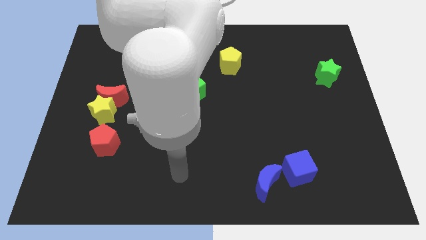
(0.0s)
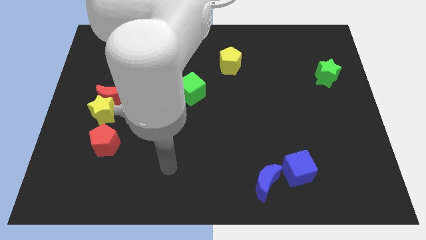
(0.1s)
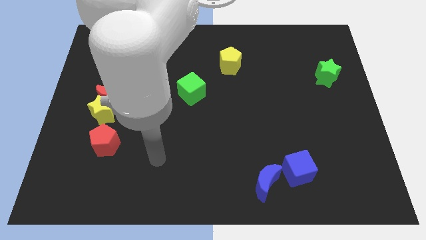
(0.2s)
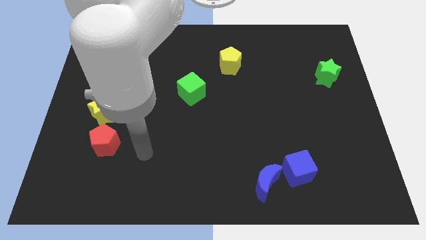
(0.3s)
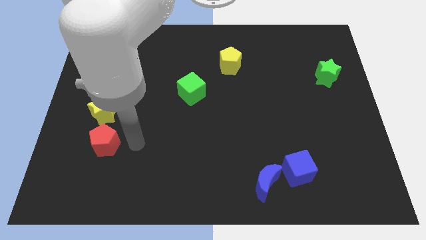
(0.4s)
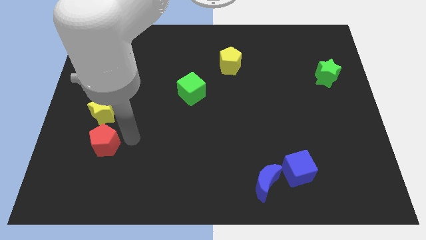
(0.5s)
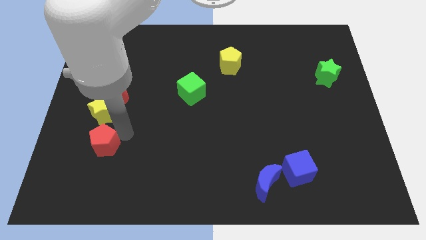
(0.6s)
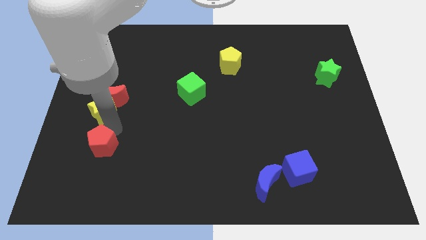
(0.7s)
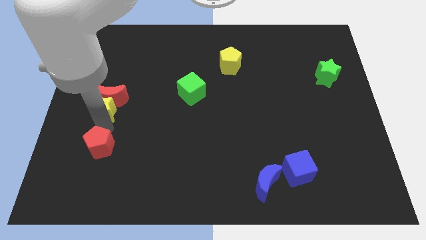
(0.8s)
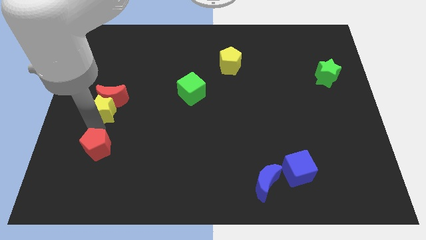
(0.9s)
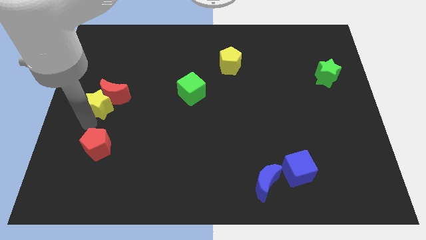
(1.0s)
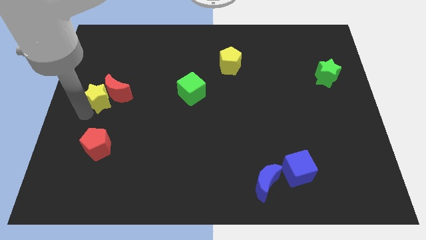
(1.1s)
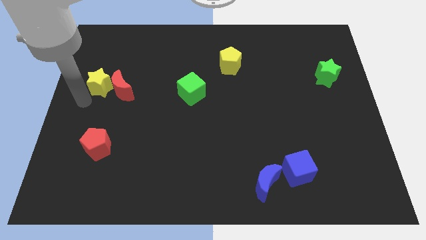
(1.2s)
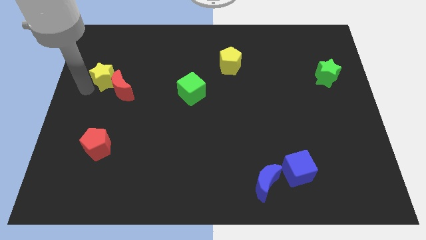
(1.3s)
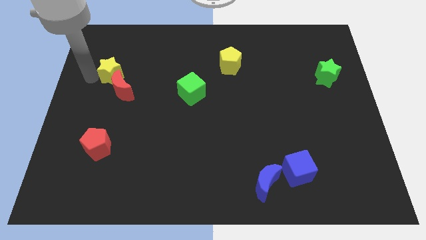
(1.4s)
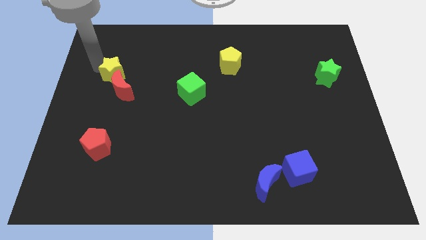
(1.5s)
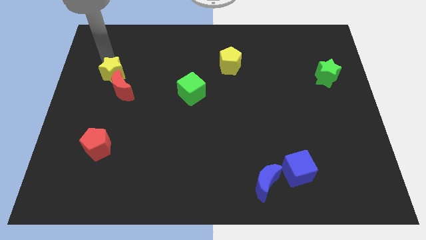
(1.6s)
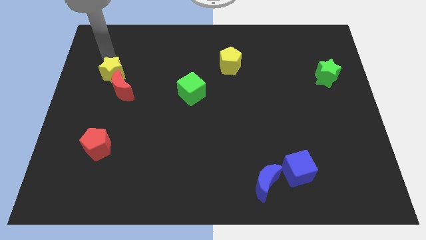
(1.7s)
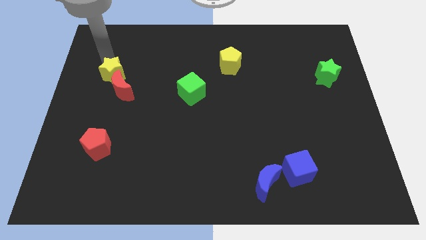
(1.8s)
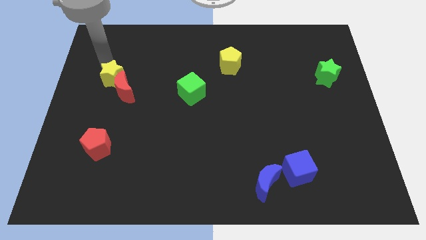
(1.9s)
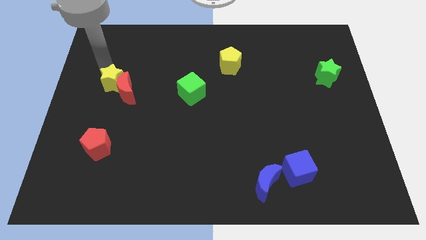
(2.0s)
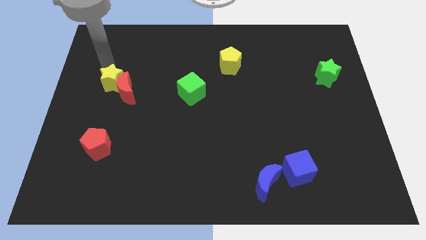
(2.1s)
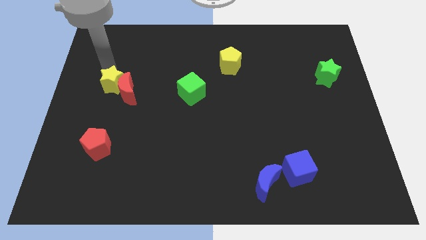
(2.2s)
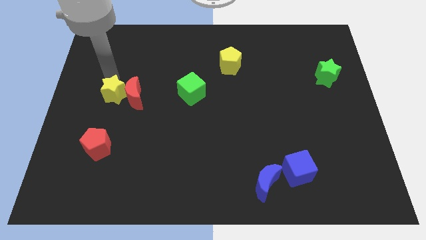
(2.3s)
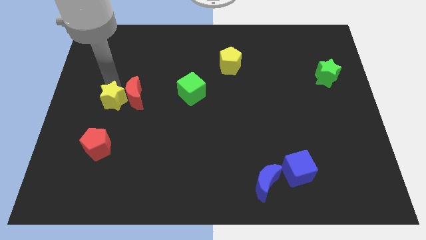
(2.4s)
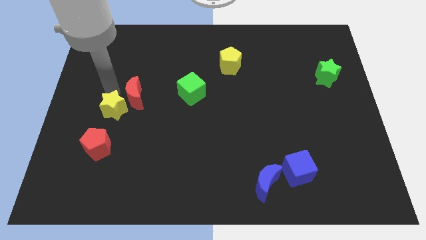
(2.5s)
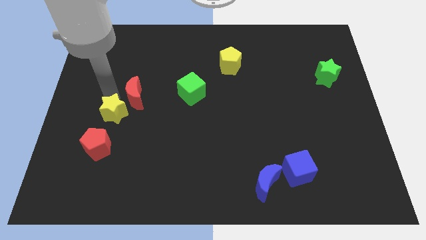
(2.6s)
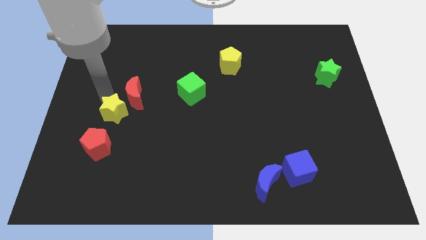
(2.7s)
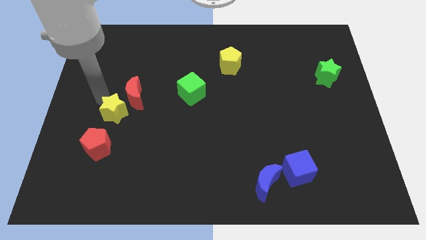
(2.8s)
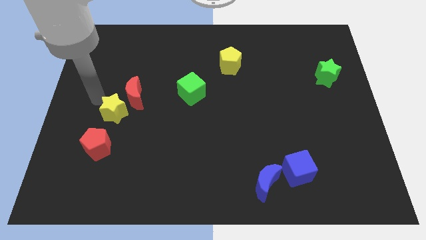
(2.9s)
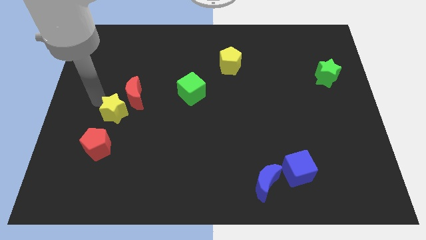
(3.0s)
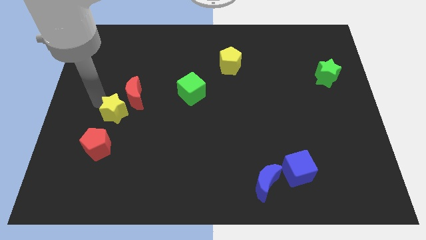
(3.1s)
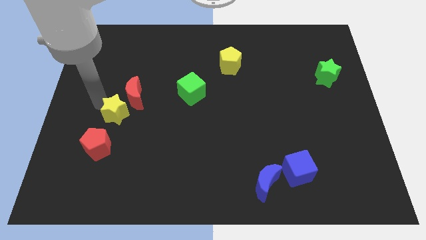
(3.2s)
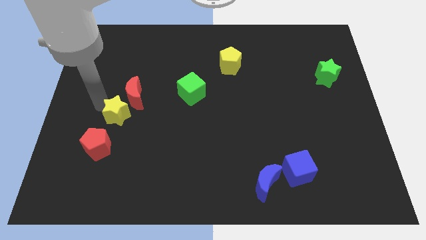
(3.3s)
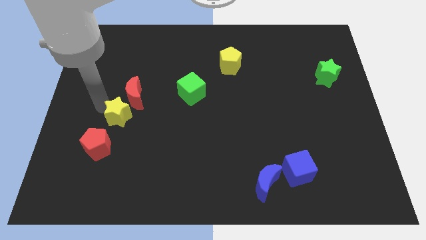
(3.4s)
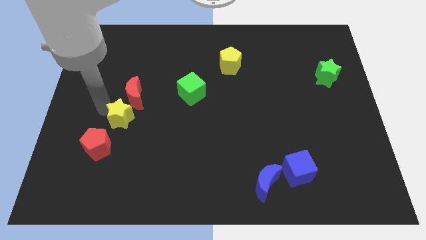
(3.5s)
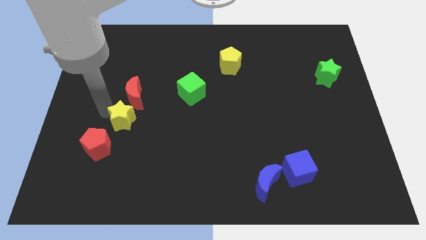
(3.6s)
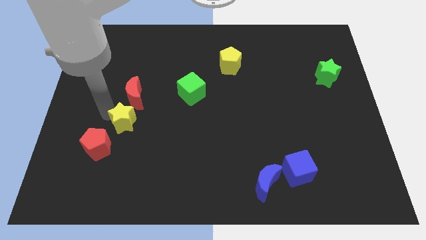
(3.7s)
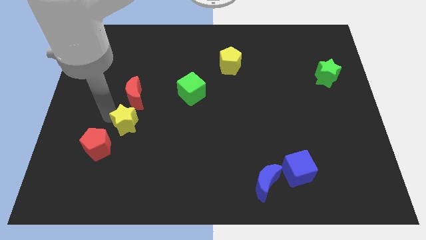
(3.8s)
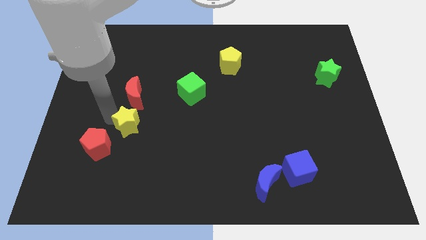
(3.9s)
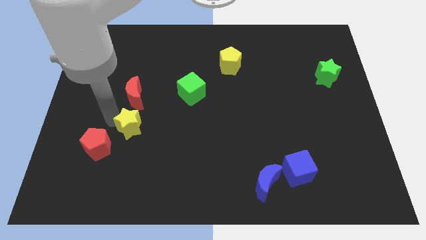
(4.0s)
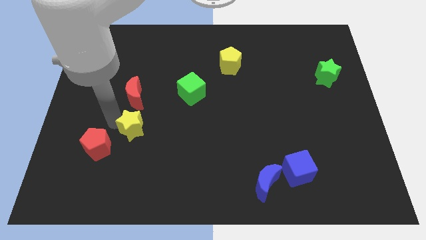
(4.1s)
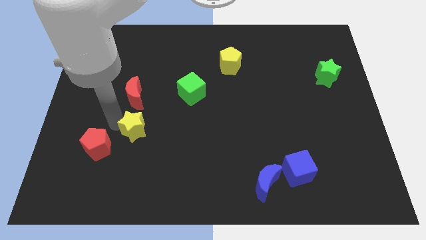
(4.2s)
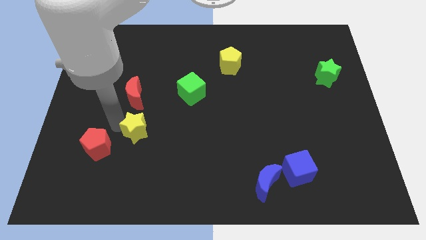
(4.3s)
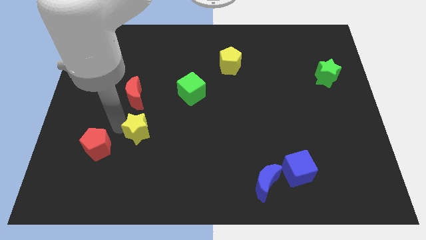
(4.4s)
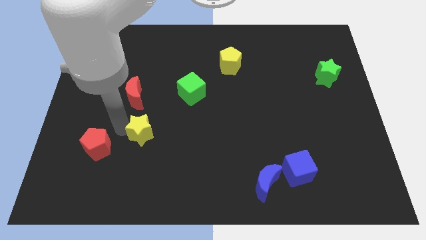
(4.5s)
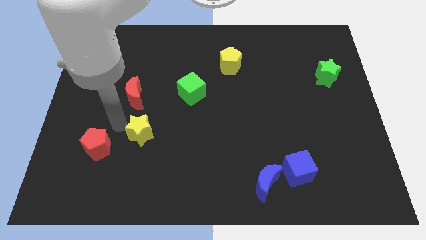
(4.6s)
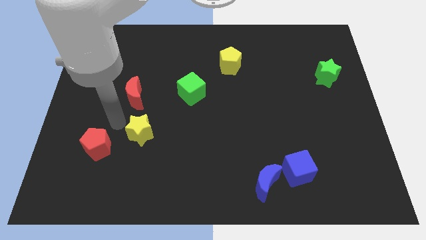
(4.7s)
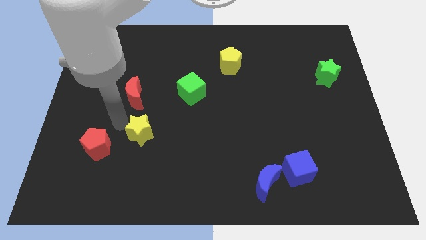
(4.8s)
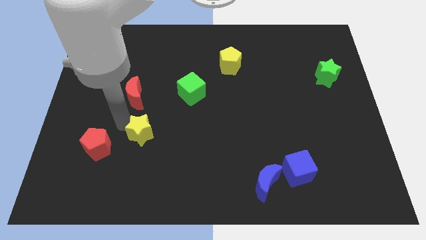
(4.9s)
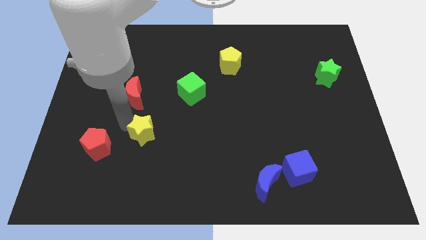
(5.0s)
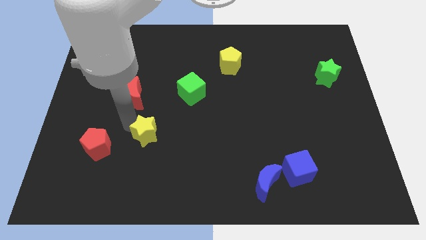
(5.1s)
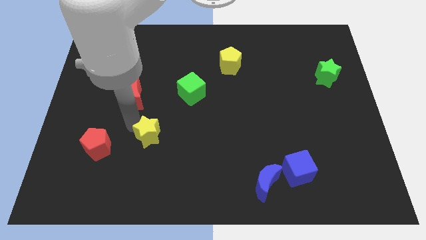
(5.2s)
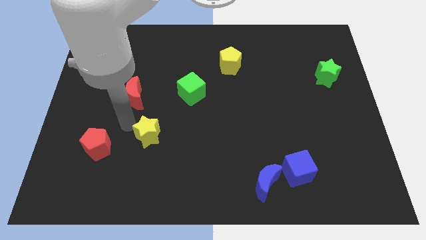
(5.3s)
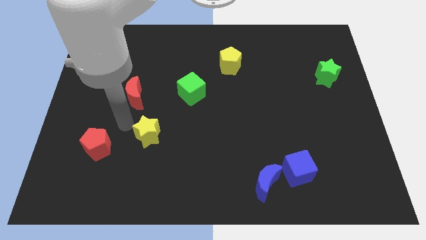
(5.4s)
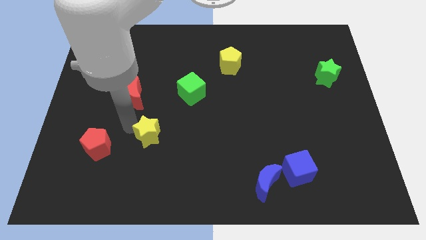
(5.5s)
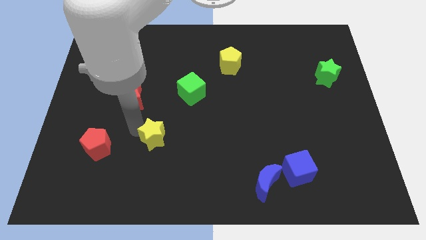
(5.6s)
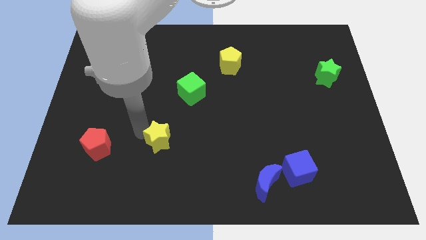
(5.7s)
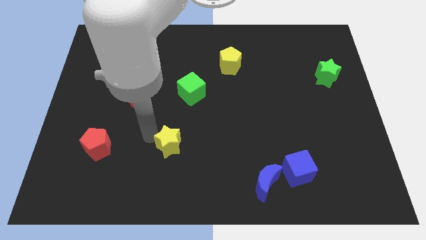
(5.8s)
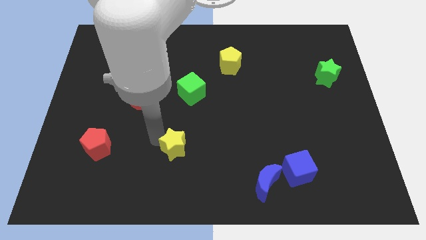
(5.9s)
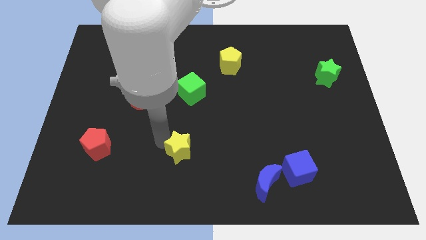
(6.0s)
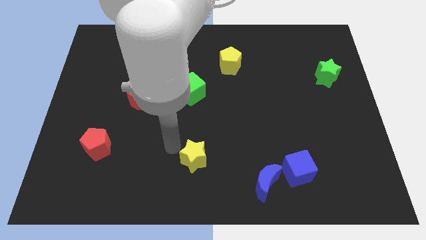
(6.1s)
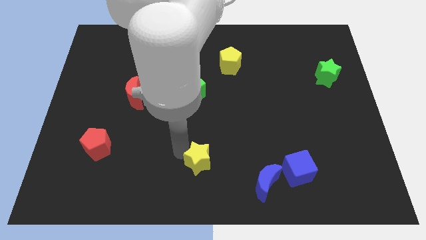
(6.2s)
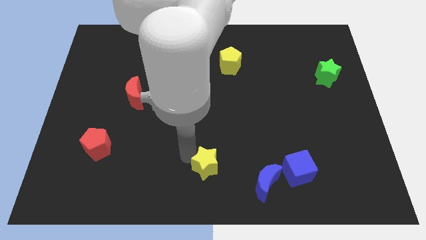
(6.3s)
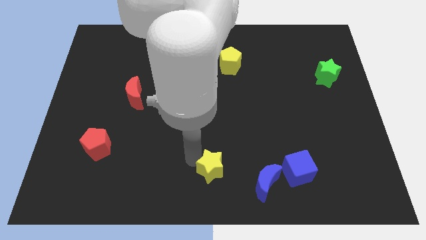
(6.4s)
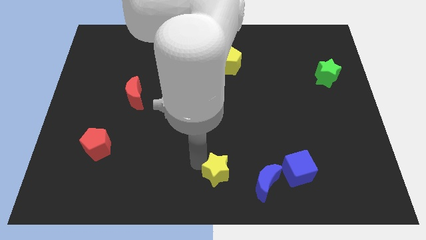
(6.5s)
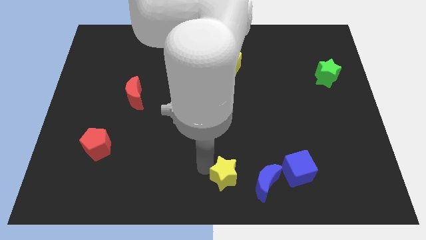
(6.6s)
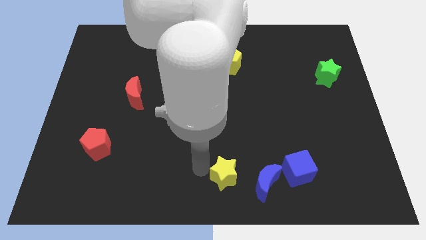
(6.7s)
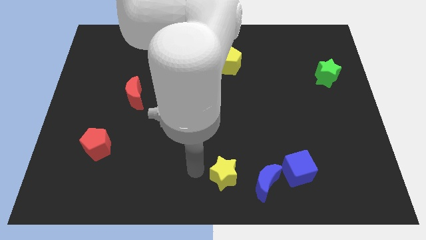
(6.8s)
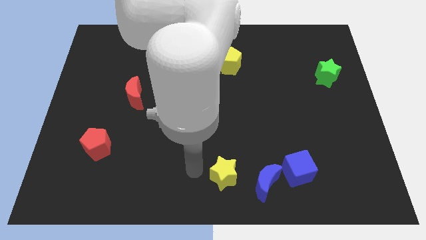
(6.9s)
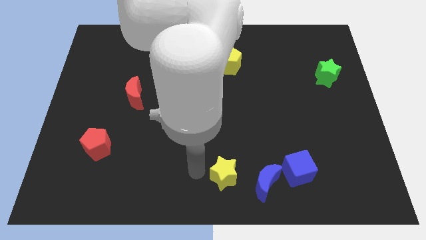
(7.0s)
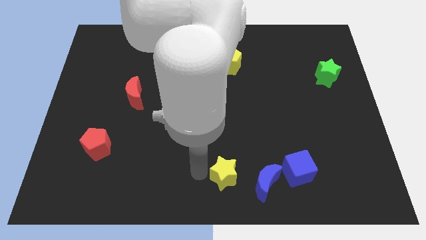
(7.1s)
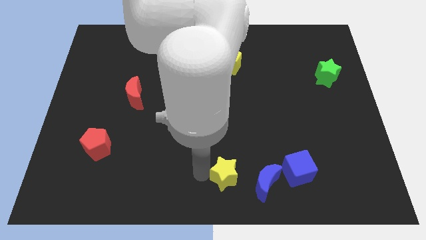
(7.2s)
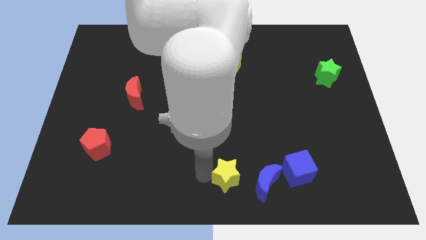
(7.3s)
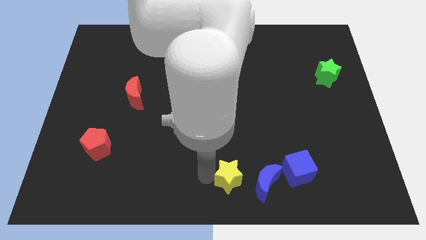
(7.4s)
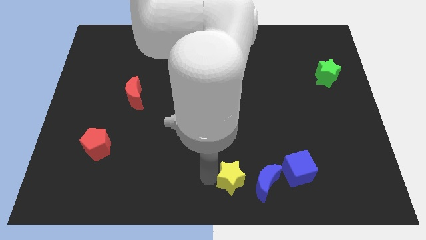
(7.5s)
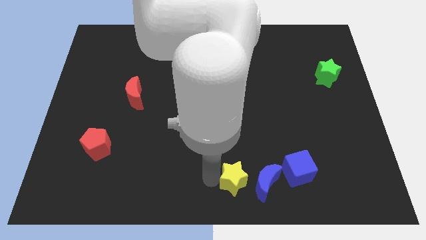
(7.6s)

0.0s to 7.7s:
put the yellow star to the blue moon
